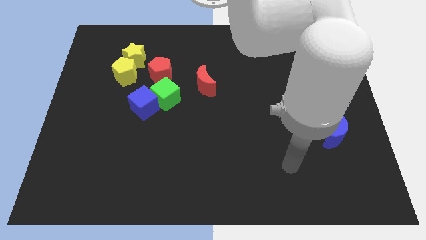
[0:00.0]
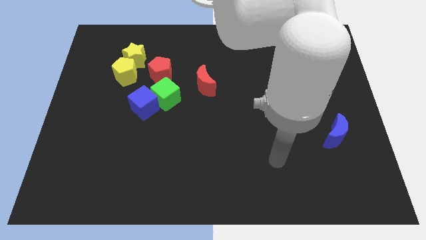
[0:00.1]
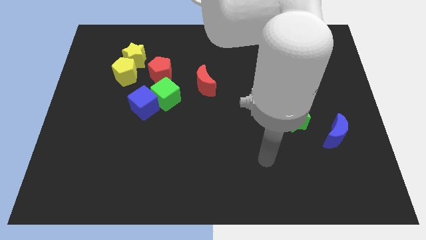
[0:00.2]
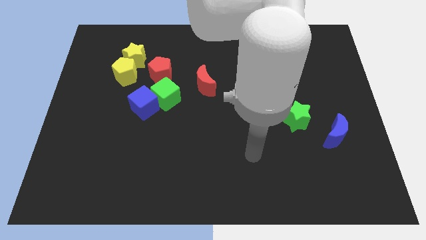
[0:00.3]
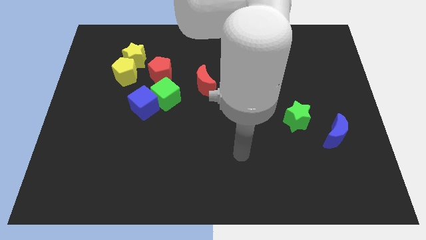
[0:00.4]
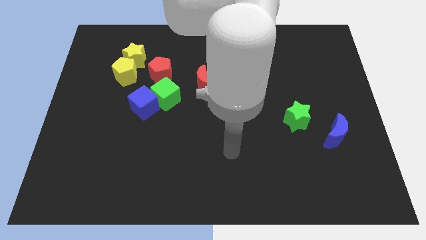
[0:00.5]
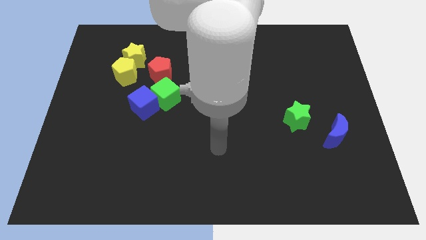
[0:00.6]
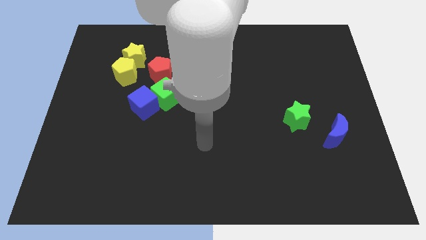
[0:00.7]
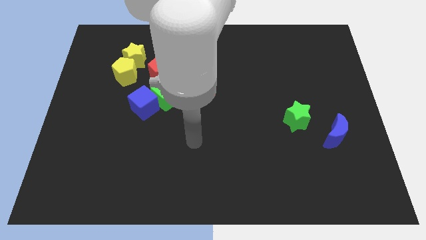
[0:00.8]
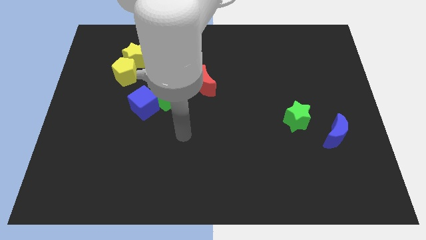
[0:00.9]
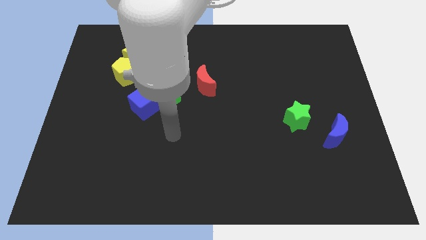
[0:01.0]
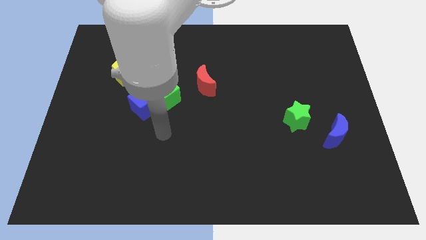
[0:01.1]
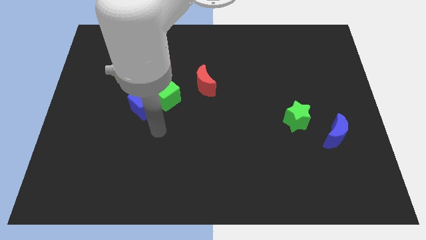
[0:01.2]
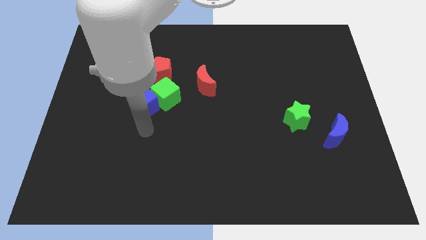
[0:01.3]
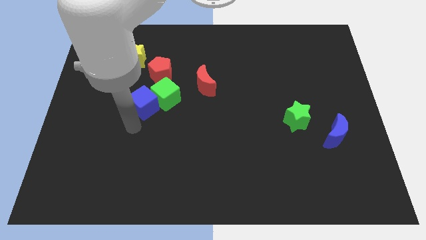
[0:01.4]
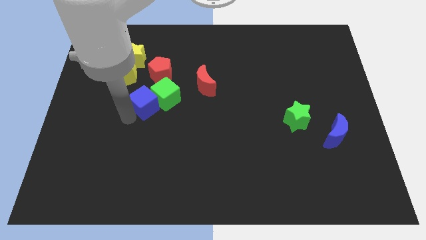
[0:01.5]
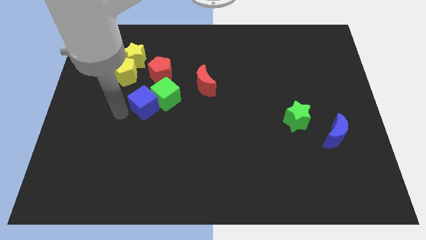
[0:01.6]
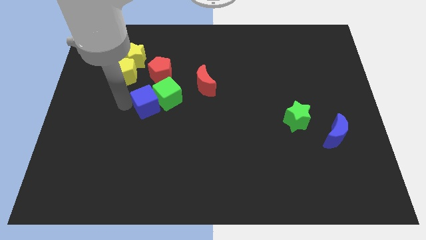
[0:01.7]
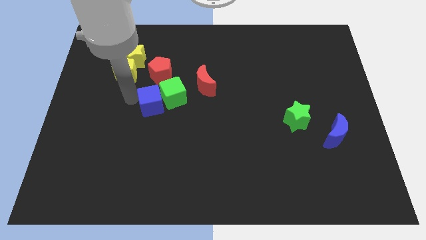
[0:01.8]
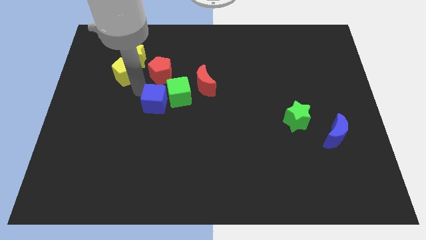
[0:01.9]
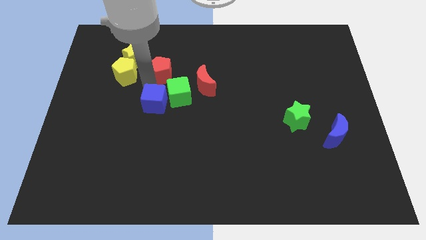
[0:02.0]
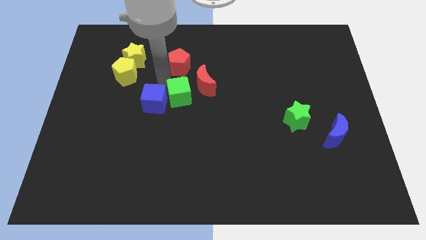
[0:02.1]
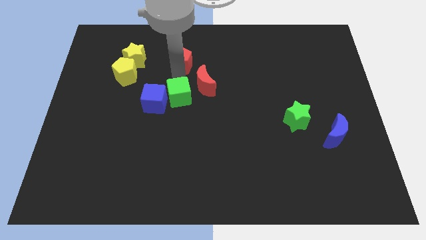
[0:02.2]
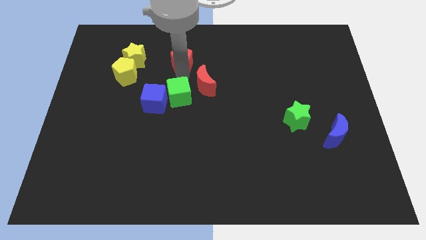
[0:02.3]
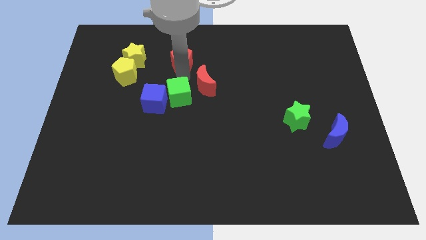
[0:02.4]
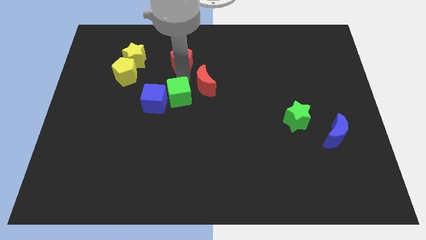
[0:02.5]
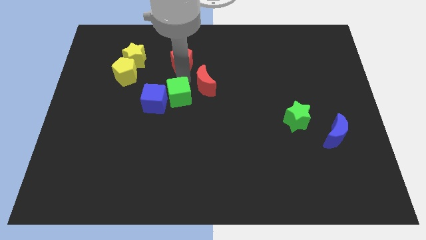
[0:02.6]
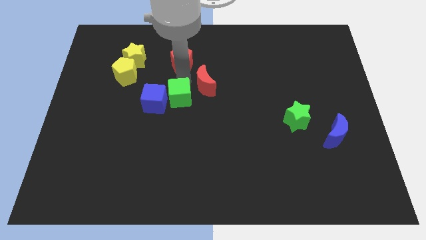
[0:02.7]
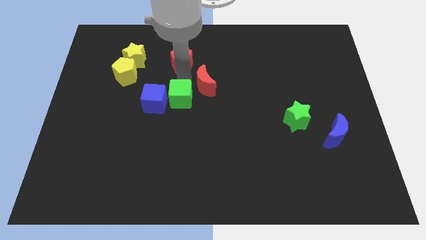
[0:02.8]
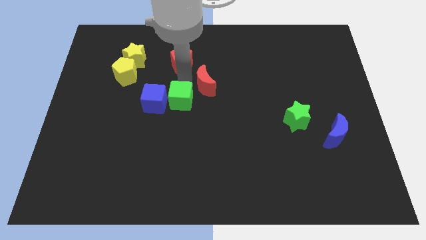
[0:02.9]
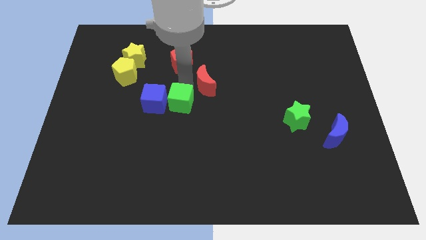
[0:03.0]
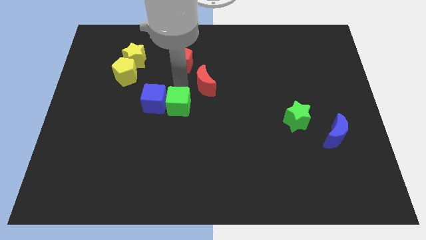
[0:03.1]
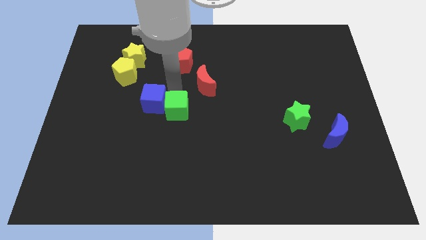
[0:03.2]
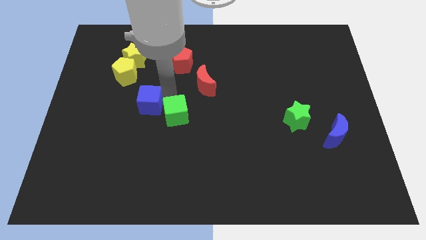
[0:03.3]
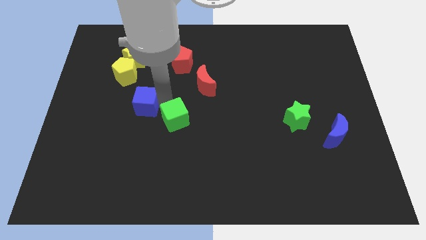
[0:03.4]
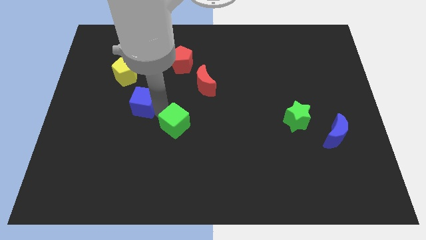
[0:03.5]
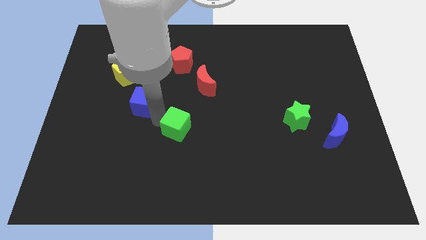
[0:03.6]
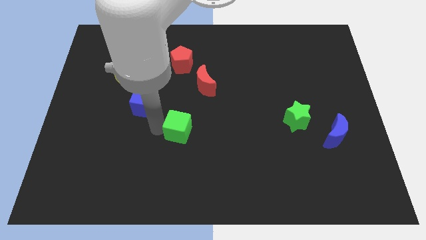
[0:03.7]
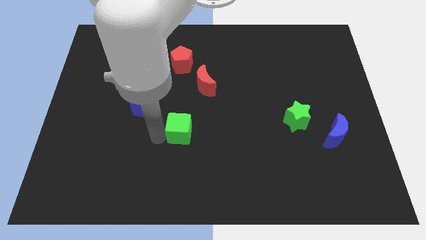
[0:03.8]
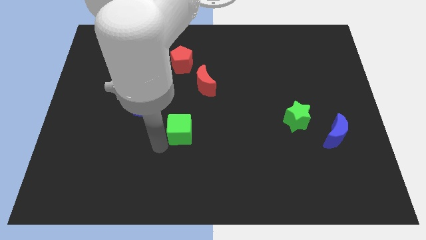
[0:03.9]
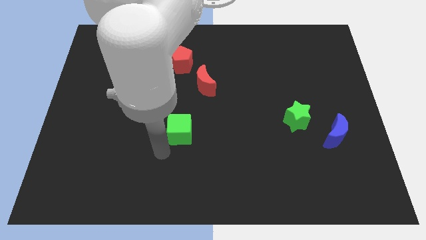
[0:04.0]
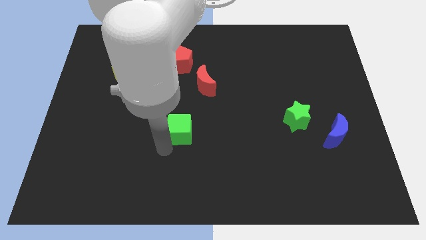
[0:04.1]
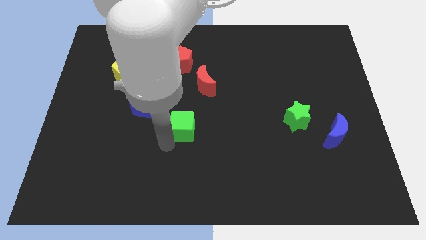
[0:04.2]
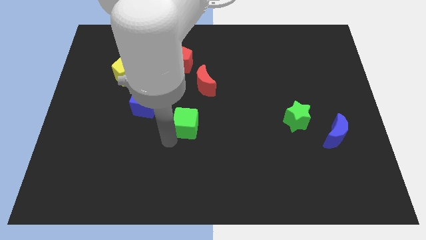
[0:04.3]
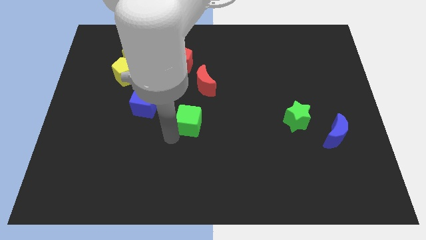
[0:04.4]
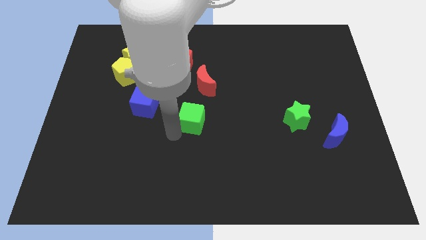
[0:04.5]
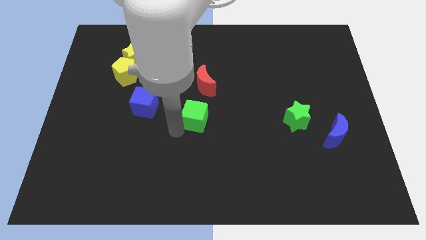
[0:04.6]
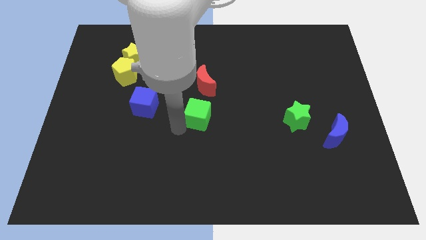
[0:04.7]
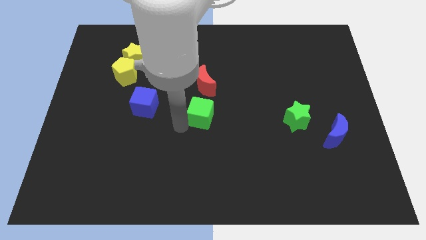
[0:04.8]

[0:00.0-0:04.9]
push the green cube a little to the right

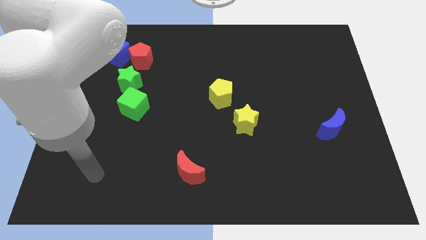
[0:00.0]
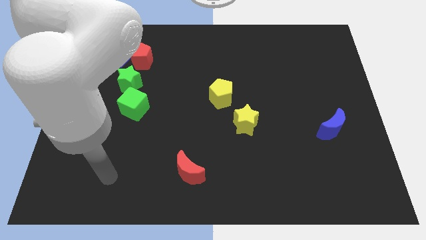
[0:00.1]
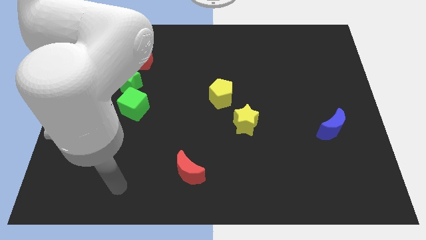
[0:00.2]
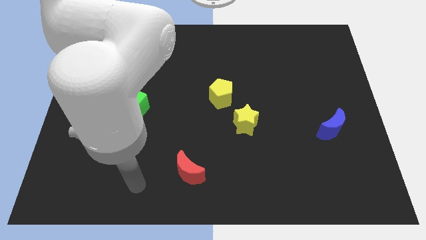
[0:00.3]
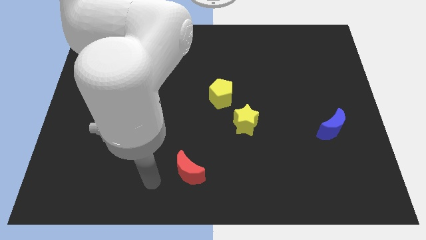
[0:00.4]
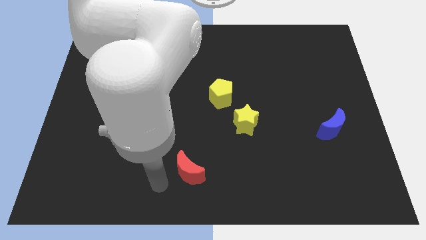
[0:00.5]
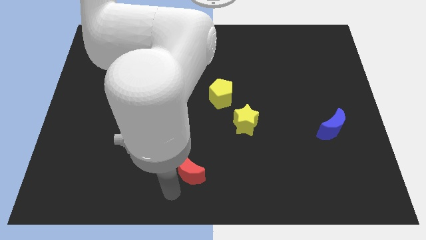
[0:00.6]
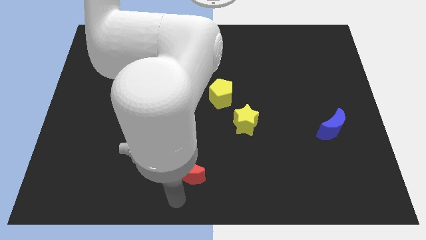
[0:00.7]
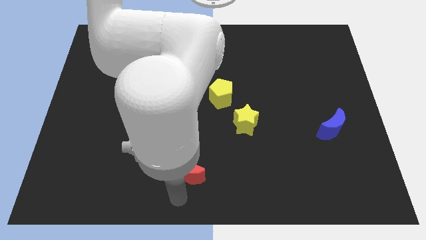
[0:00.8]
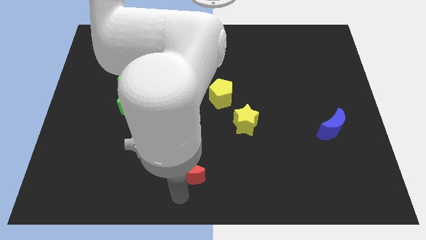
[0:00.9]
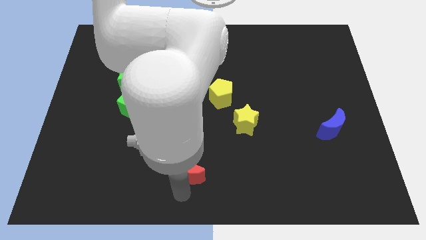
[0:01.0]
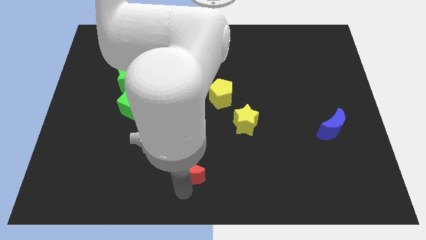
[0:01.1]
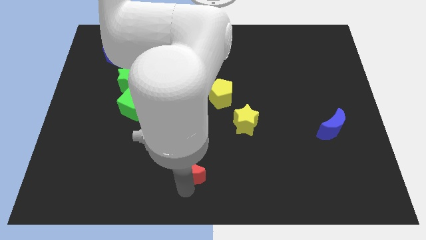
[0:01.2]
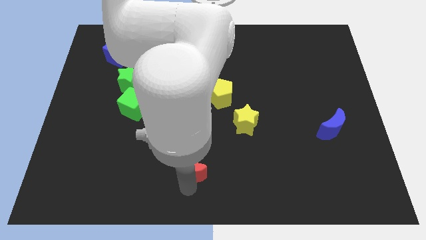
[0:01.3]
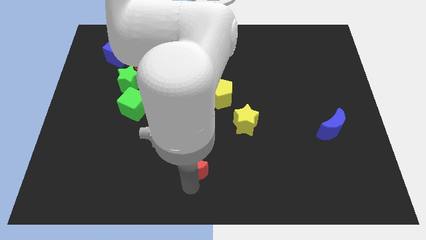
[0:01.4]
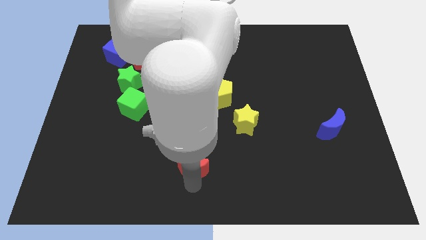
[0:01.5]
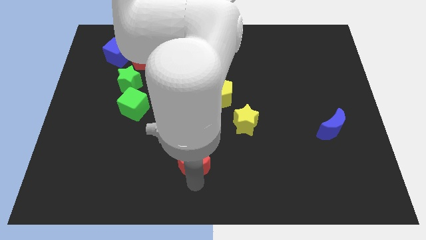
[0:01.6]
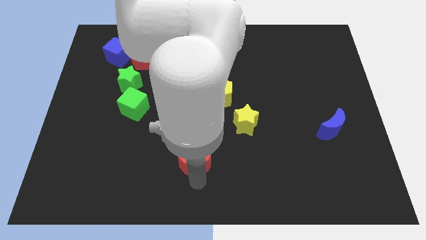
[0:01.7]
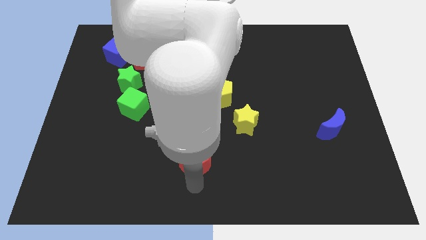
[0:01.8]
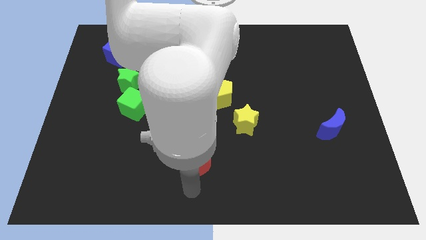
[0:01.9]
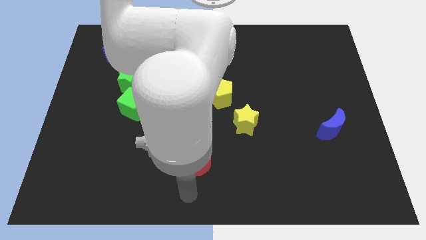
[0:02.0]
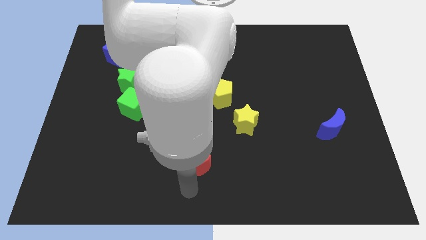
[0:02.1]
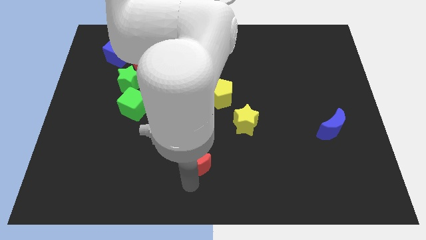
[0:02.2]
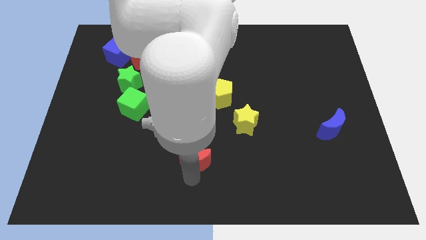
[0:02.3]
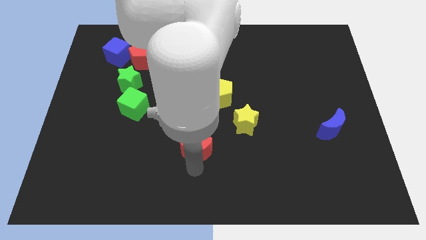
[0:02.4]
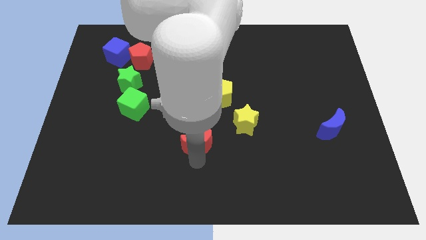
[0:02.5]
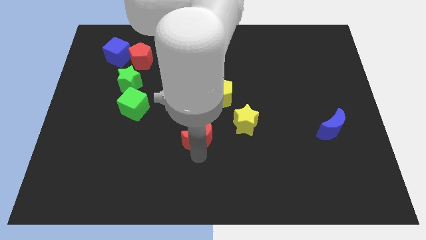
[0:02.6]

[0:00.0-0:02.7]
slide the red moon somewhat upwards

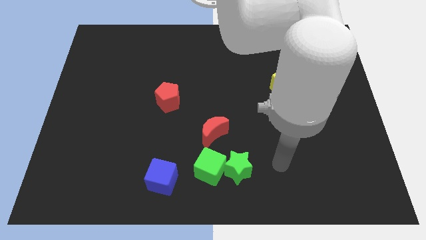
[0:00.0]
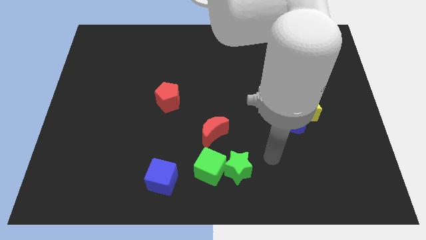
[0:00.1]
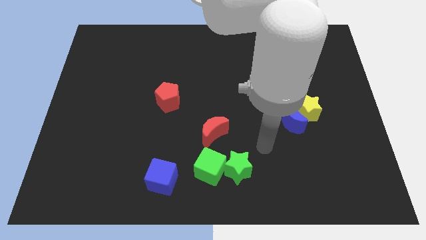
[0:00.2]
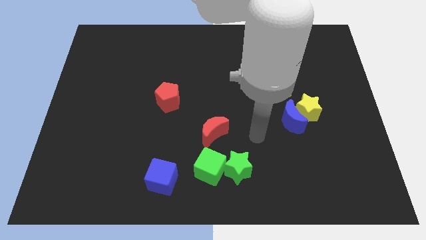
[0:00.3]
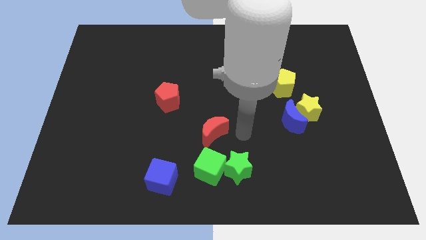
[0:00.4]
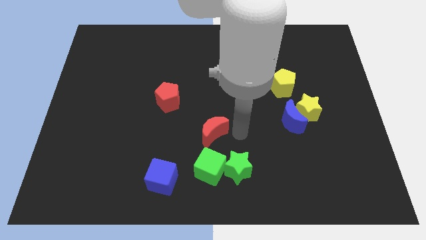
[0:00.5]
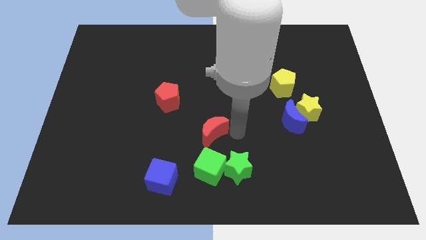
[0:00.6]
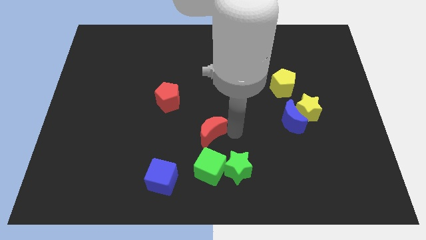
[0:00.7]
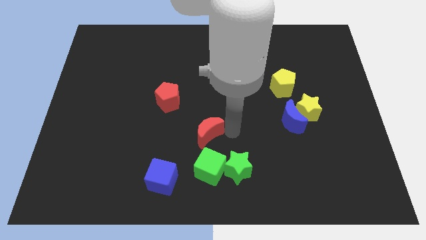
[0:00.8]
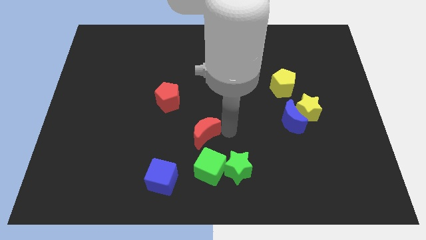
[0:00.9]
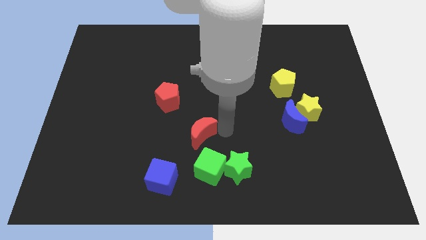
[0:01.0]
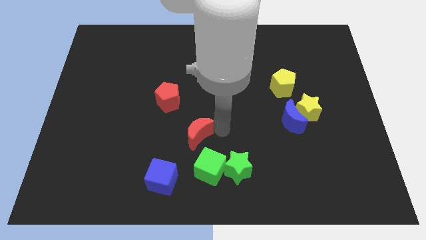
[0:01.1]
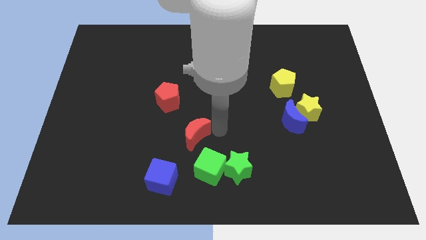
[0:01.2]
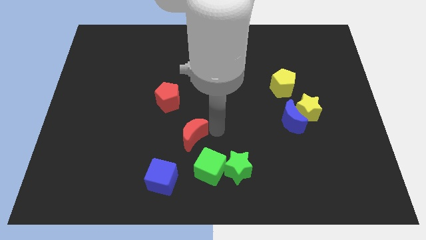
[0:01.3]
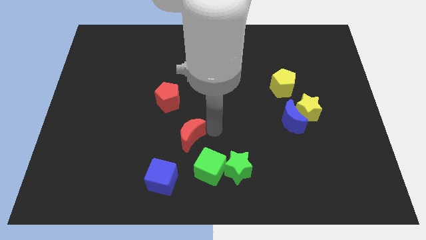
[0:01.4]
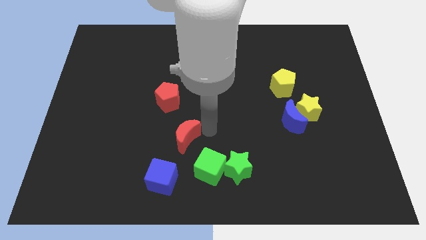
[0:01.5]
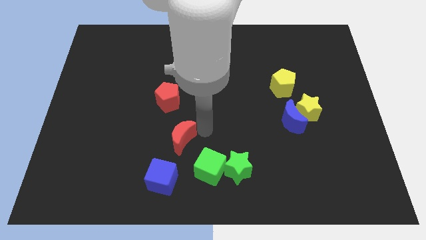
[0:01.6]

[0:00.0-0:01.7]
push the red moon left a bit
